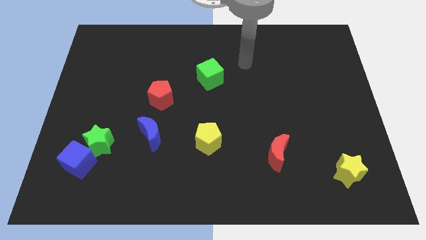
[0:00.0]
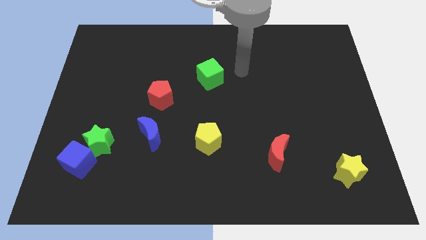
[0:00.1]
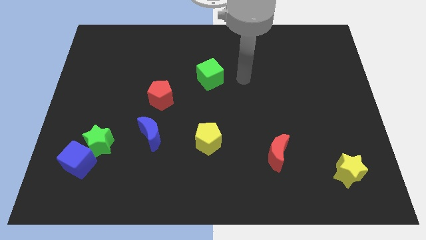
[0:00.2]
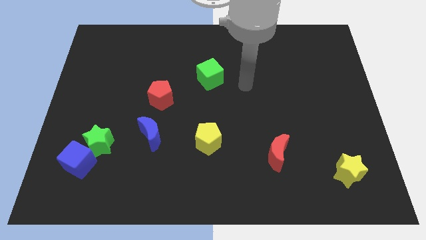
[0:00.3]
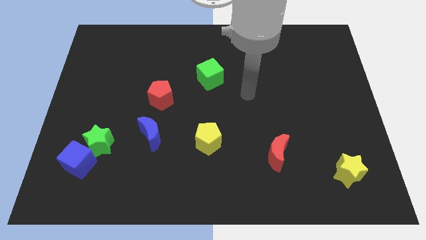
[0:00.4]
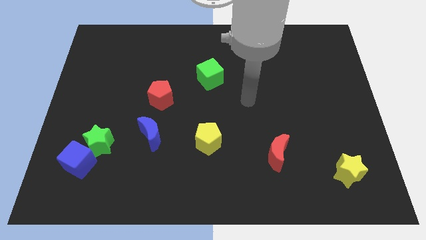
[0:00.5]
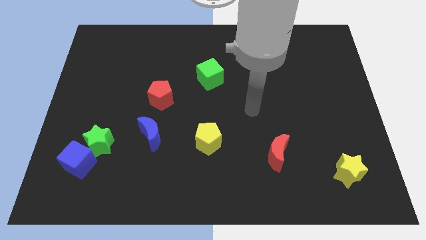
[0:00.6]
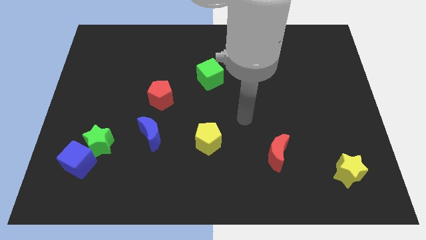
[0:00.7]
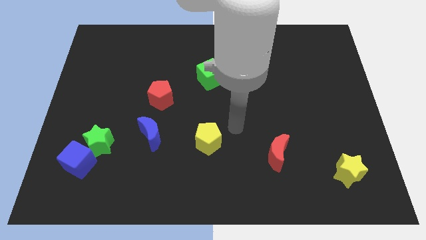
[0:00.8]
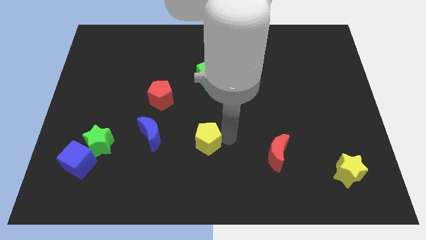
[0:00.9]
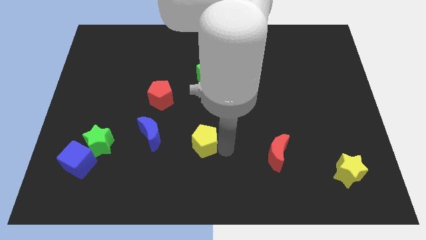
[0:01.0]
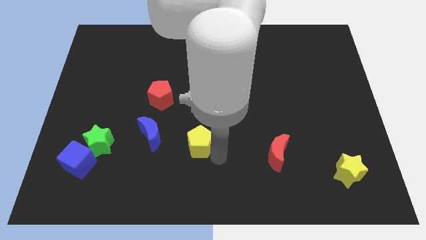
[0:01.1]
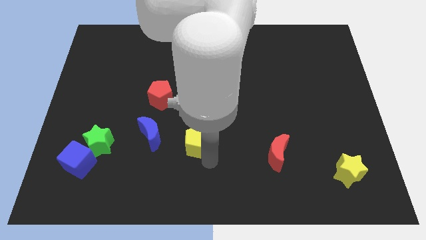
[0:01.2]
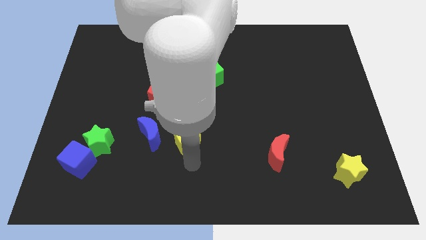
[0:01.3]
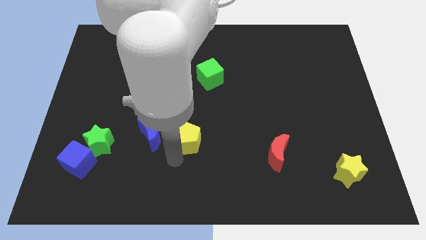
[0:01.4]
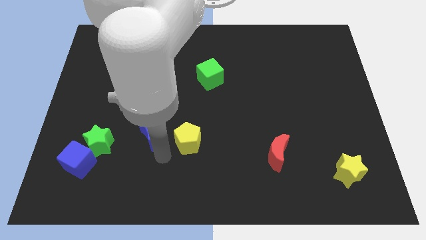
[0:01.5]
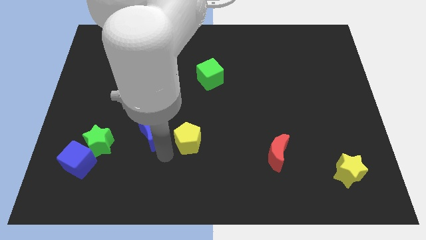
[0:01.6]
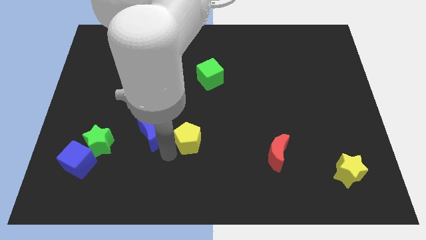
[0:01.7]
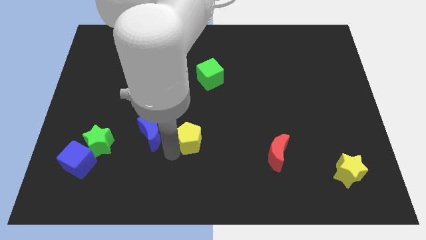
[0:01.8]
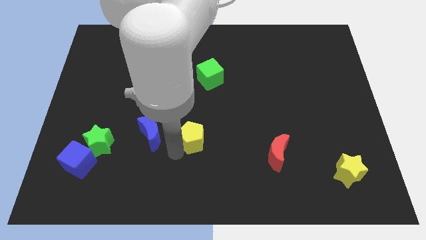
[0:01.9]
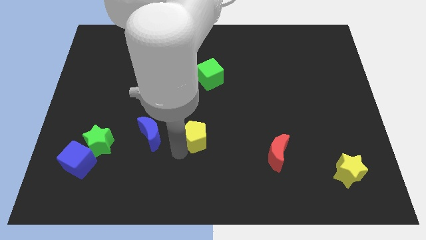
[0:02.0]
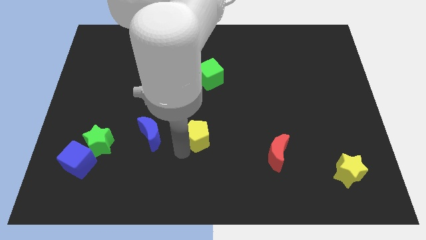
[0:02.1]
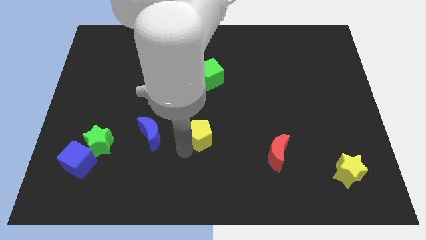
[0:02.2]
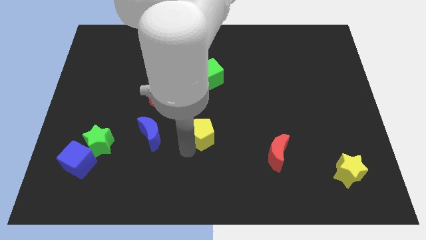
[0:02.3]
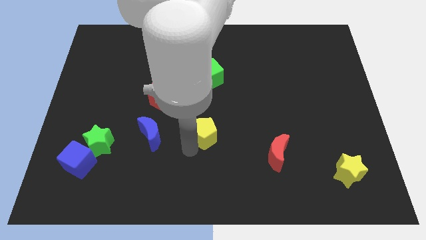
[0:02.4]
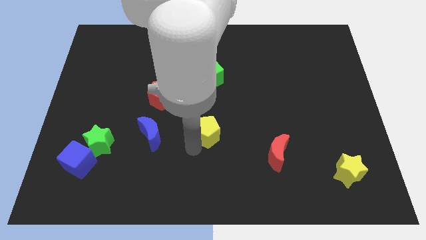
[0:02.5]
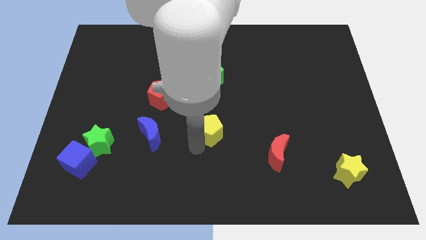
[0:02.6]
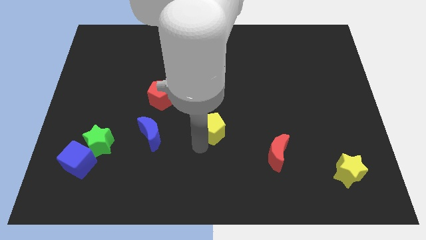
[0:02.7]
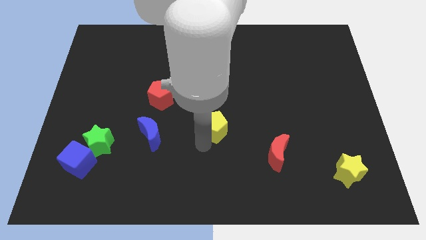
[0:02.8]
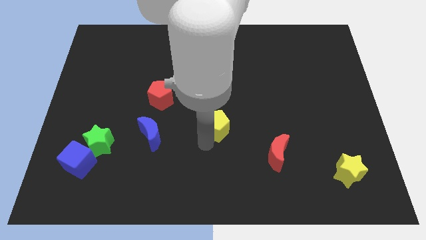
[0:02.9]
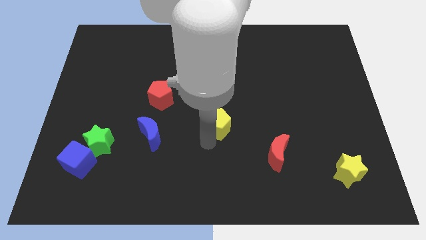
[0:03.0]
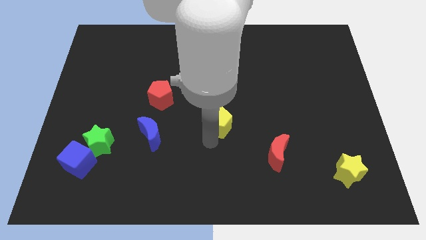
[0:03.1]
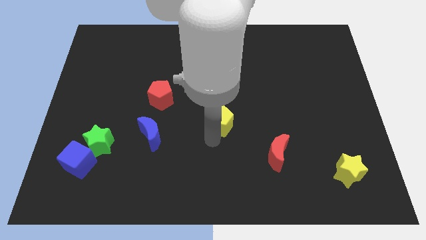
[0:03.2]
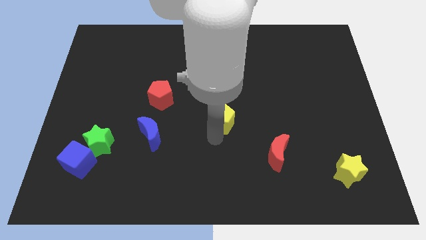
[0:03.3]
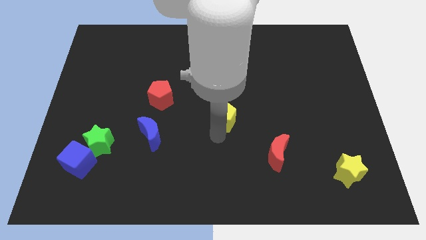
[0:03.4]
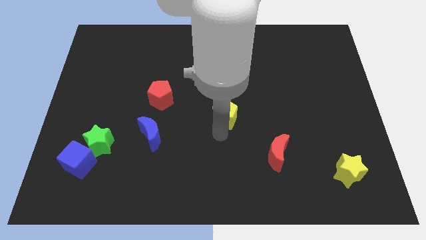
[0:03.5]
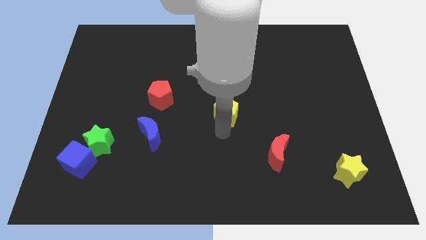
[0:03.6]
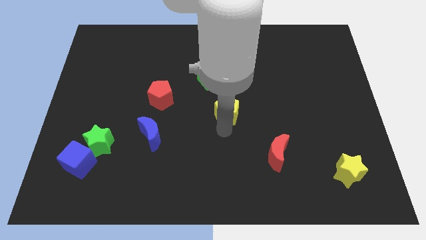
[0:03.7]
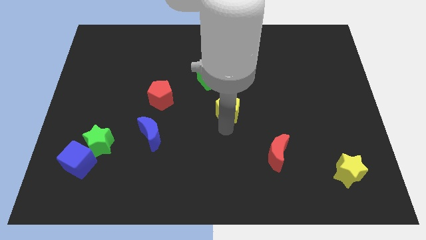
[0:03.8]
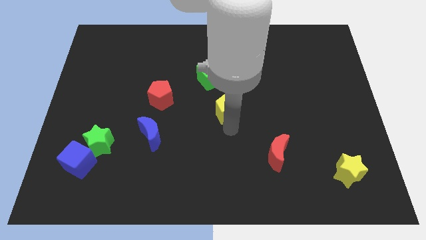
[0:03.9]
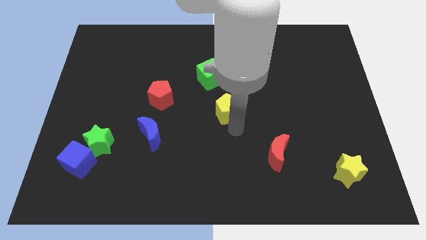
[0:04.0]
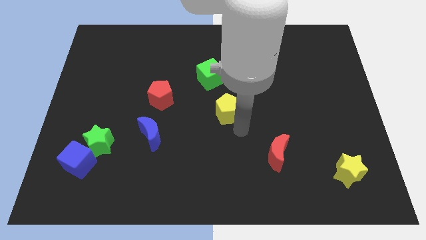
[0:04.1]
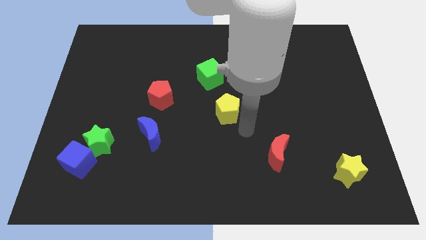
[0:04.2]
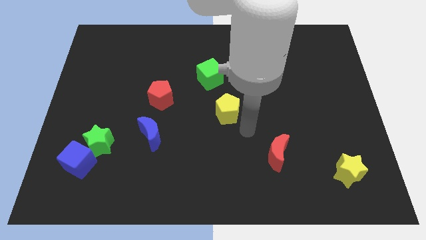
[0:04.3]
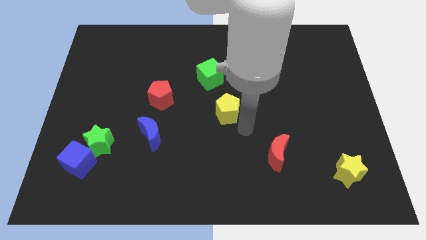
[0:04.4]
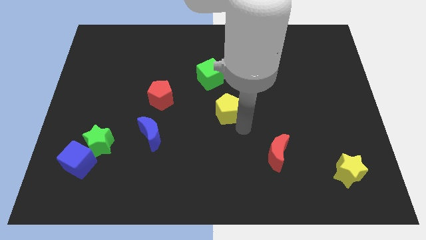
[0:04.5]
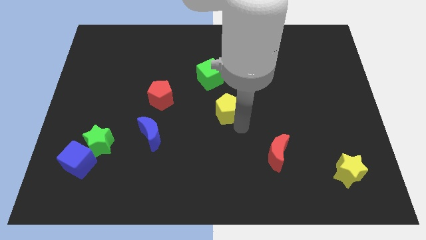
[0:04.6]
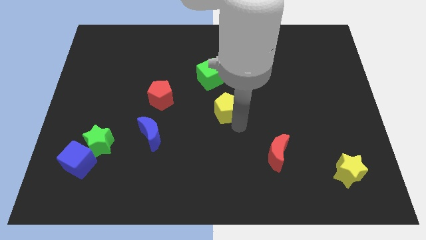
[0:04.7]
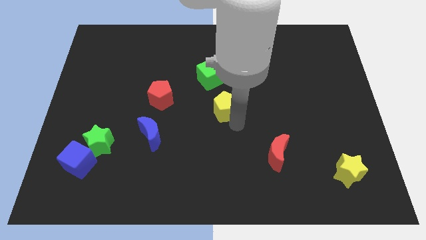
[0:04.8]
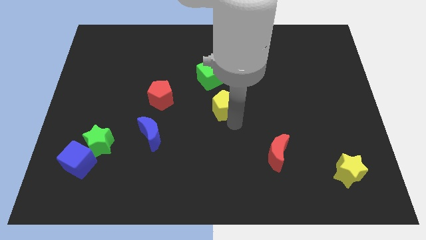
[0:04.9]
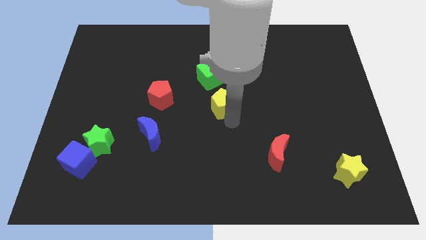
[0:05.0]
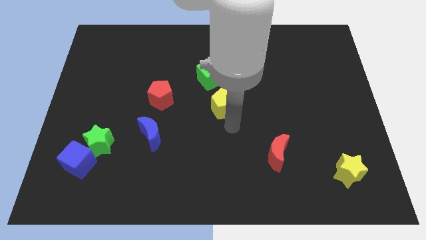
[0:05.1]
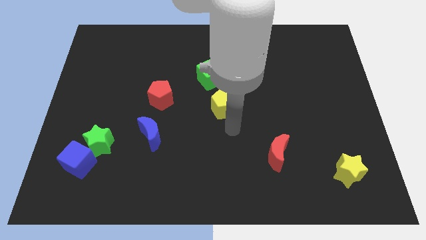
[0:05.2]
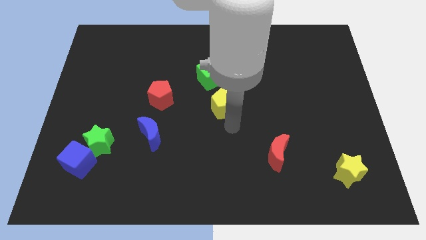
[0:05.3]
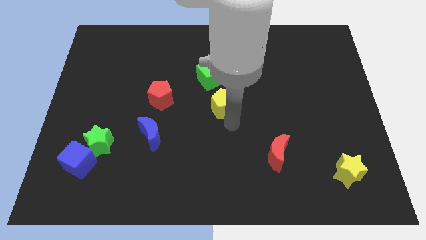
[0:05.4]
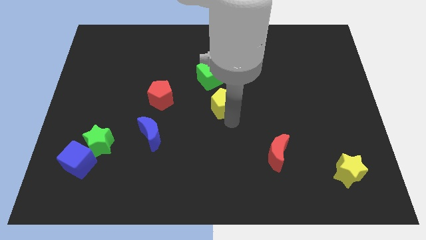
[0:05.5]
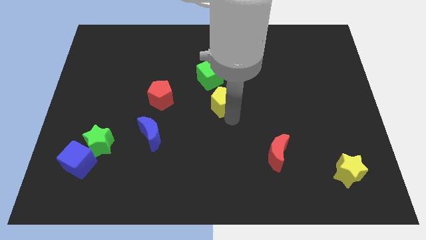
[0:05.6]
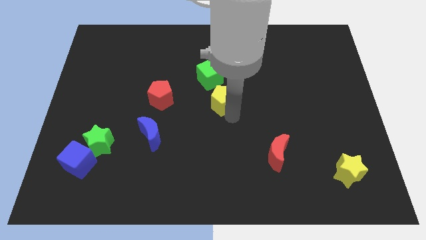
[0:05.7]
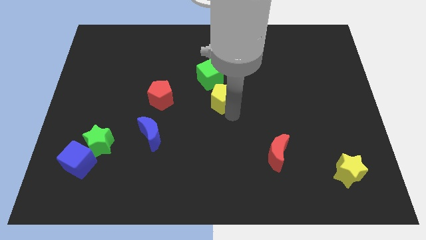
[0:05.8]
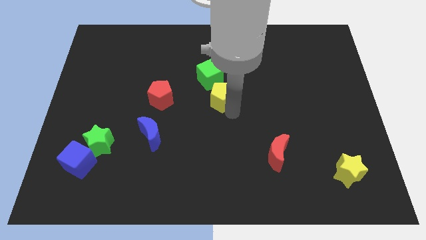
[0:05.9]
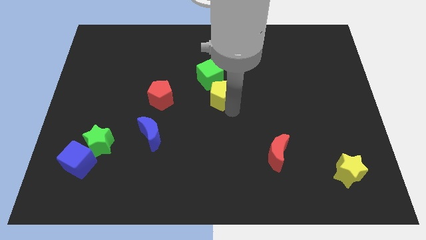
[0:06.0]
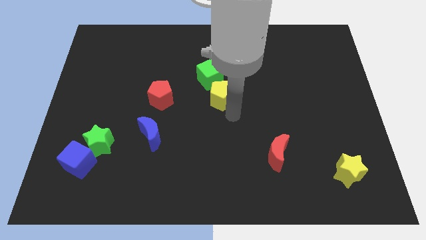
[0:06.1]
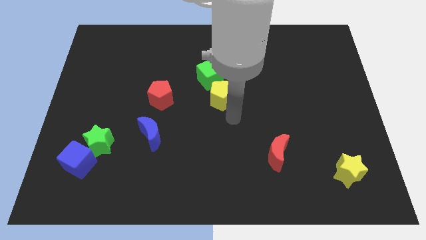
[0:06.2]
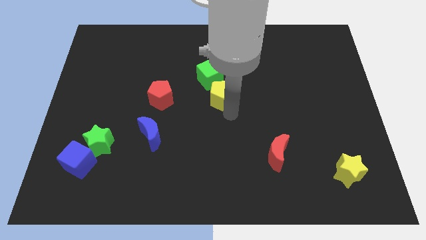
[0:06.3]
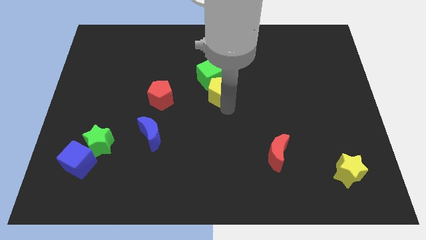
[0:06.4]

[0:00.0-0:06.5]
move the yellow pentagon close to the green cube

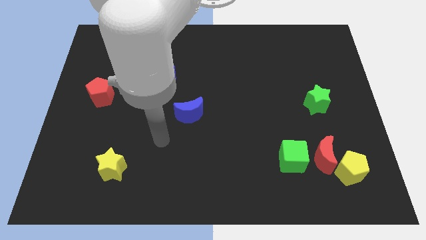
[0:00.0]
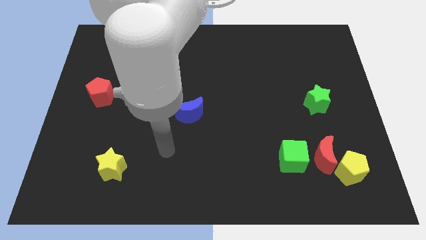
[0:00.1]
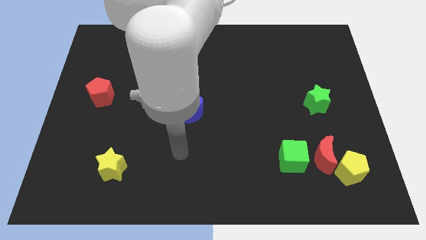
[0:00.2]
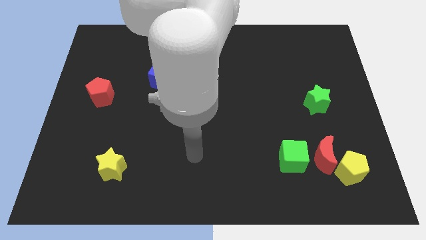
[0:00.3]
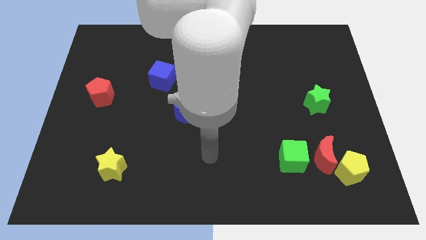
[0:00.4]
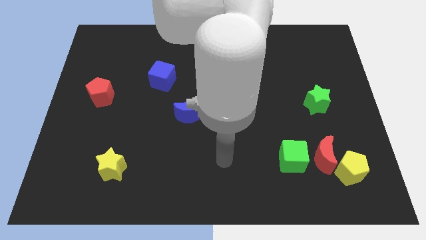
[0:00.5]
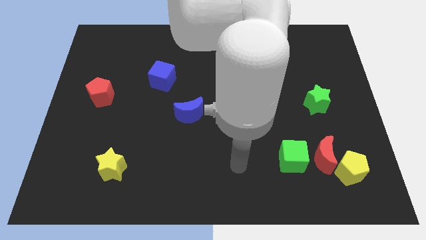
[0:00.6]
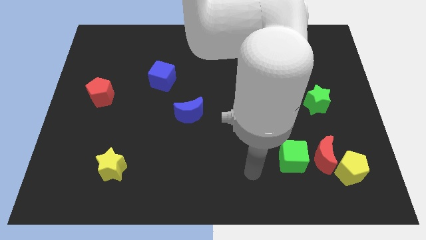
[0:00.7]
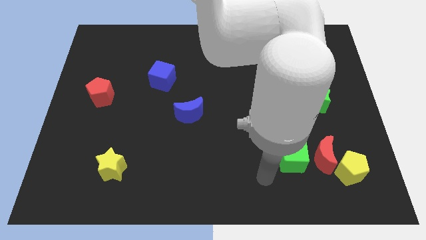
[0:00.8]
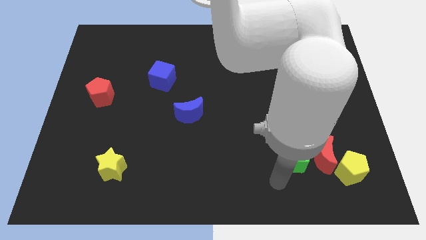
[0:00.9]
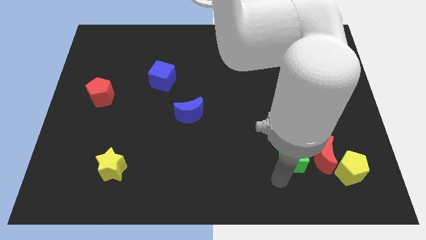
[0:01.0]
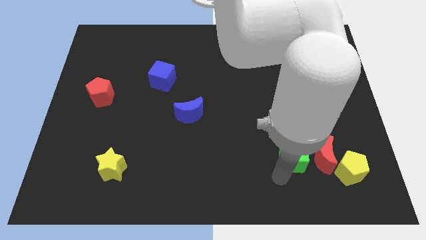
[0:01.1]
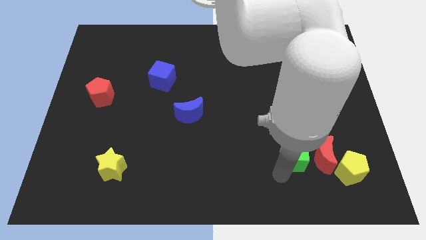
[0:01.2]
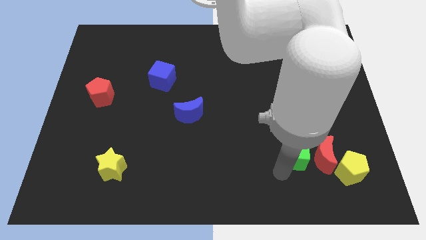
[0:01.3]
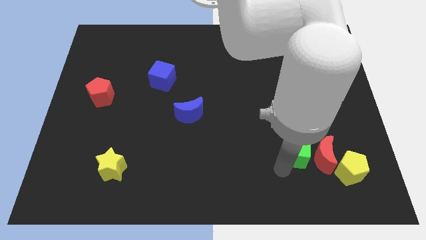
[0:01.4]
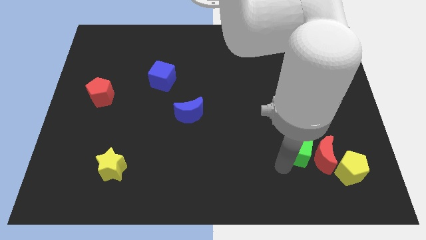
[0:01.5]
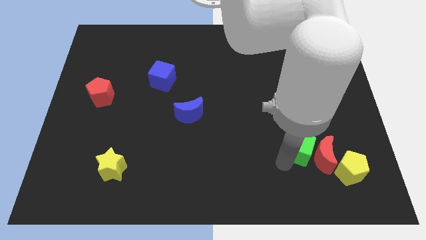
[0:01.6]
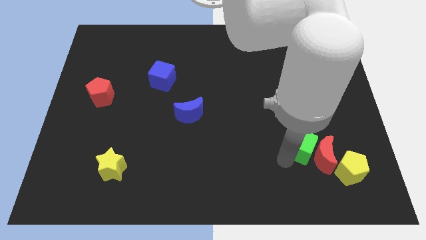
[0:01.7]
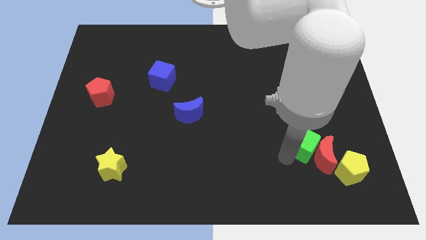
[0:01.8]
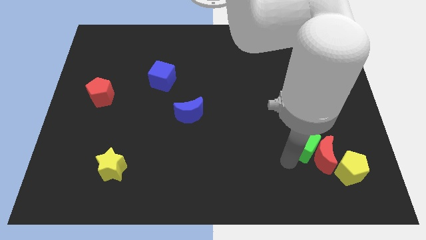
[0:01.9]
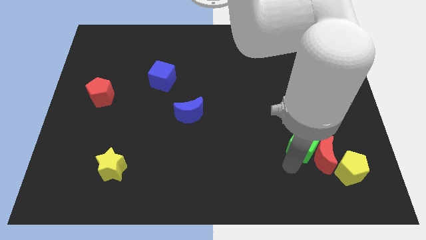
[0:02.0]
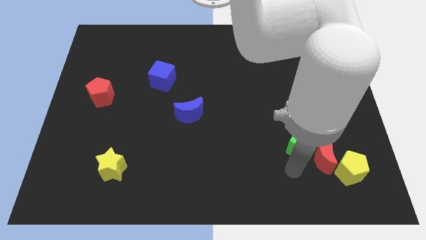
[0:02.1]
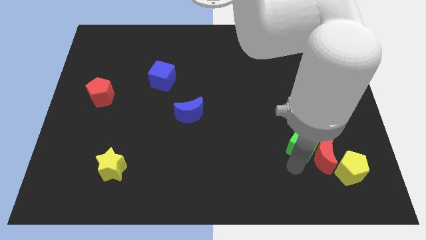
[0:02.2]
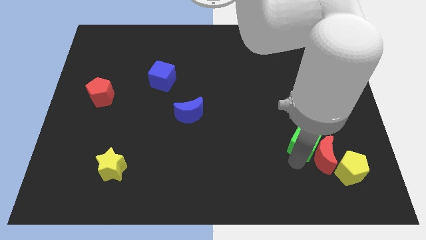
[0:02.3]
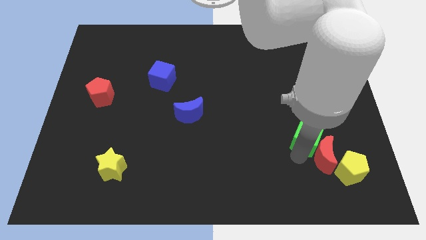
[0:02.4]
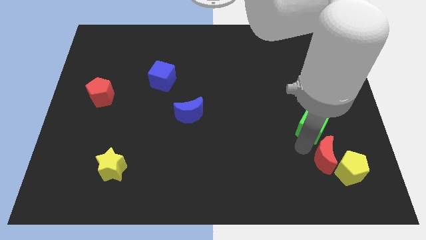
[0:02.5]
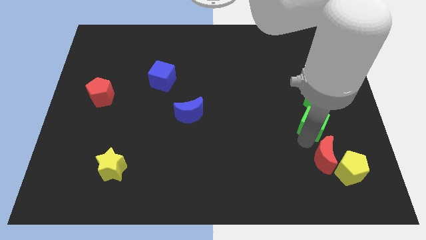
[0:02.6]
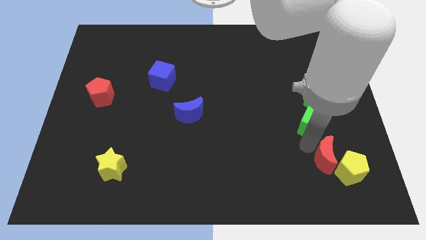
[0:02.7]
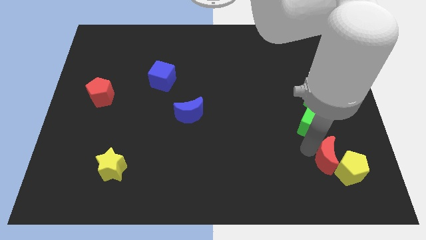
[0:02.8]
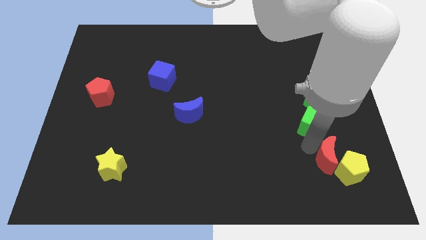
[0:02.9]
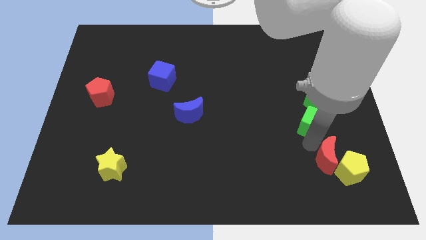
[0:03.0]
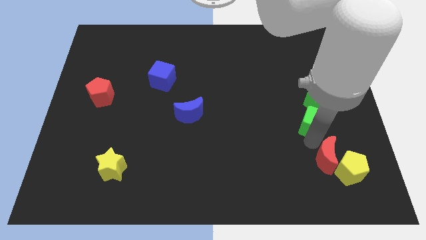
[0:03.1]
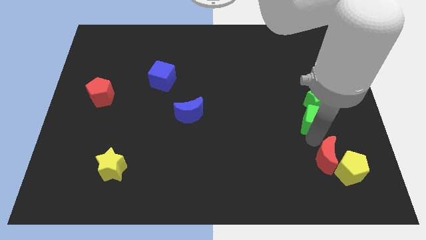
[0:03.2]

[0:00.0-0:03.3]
push the green cube next to the green star
